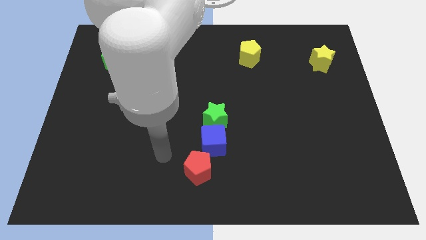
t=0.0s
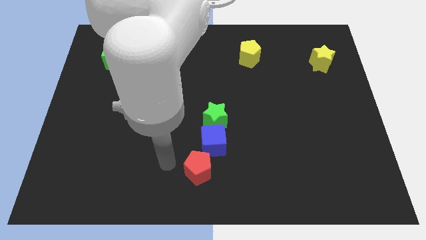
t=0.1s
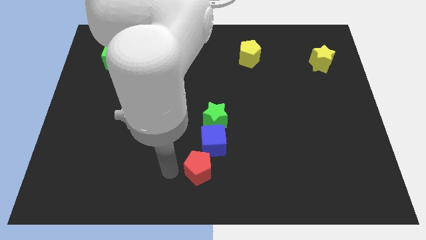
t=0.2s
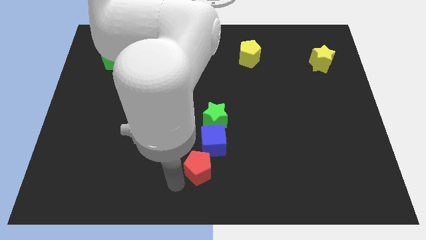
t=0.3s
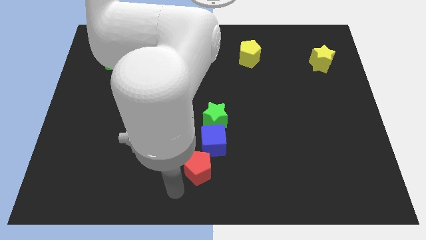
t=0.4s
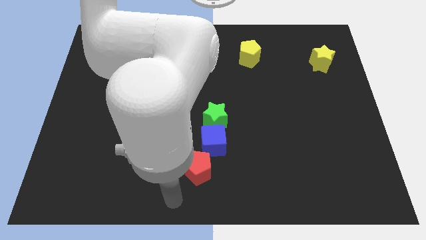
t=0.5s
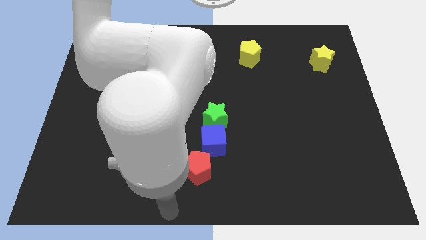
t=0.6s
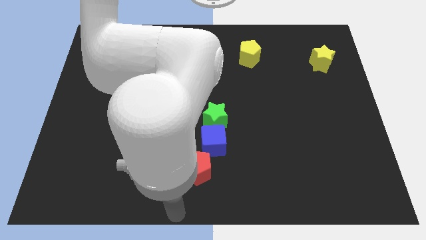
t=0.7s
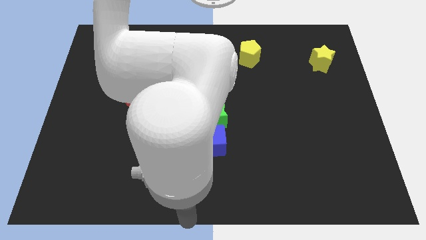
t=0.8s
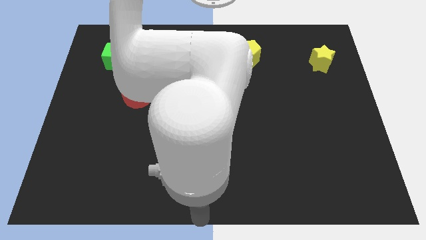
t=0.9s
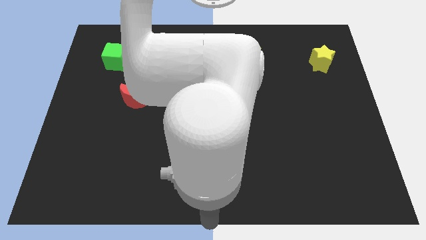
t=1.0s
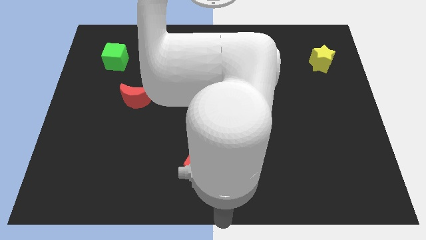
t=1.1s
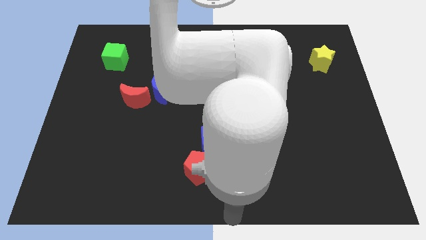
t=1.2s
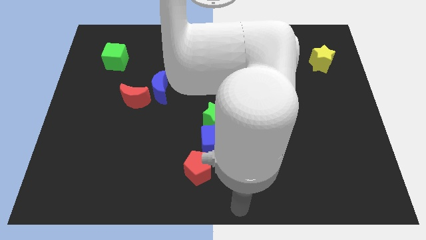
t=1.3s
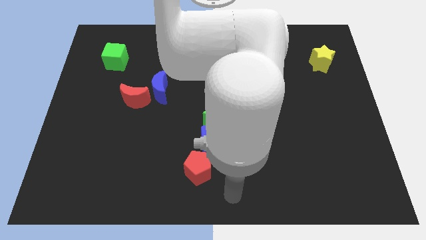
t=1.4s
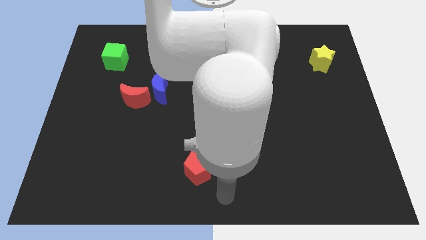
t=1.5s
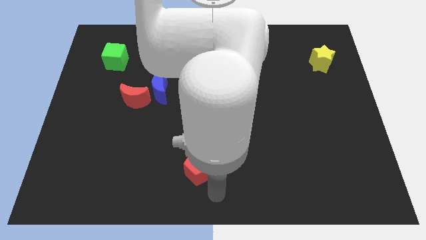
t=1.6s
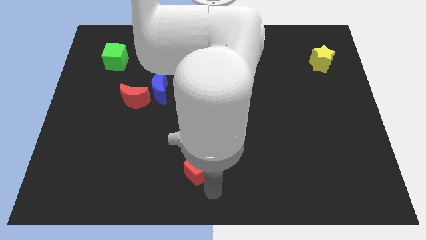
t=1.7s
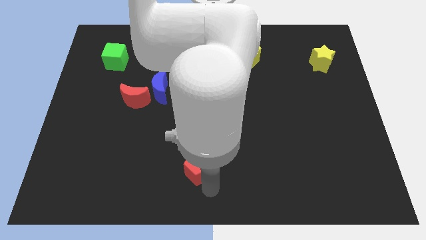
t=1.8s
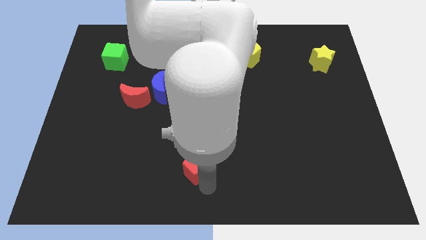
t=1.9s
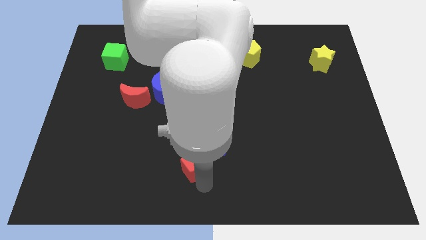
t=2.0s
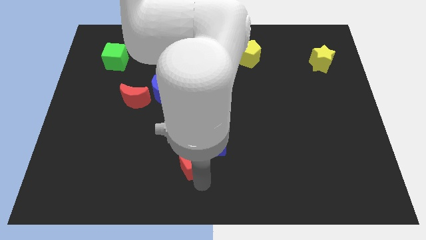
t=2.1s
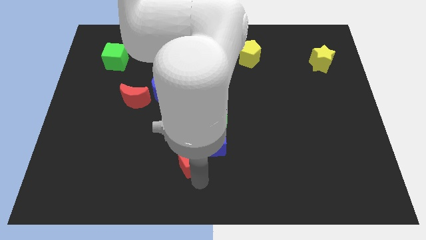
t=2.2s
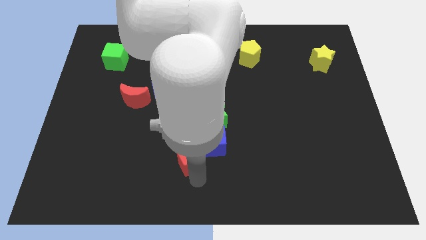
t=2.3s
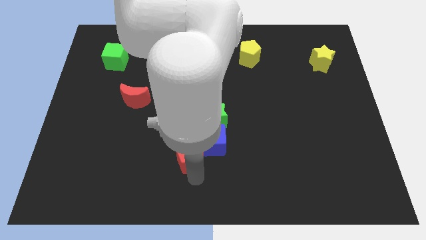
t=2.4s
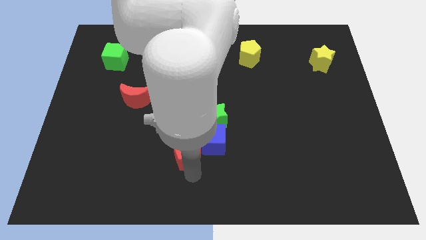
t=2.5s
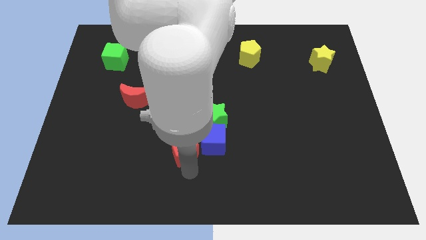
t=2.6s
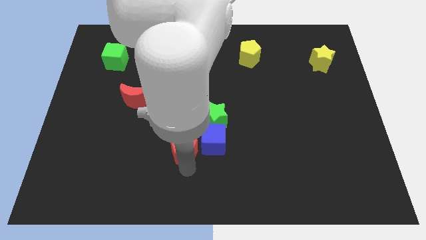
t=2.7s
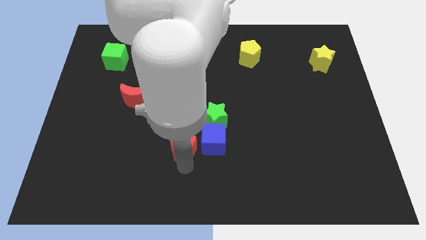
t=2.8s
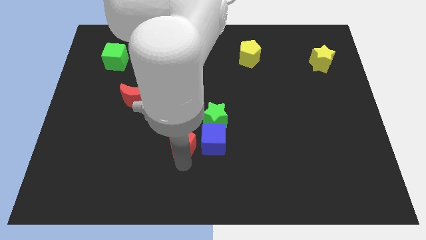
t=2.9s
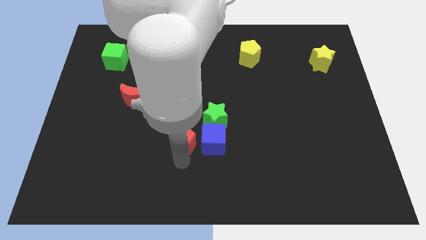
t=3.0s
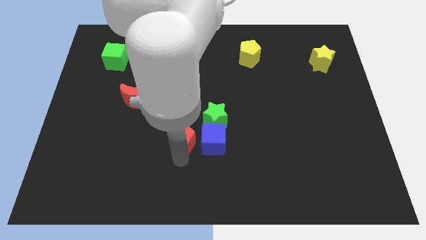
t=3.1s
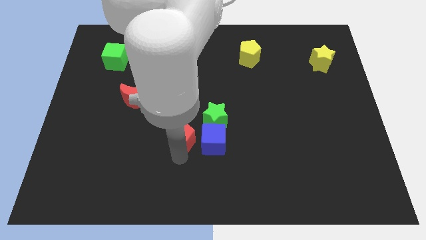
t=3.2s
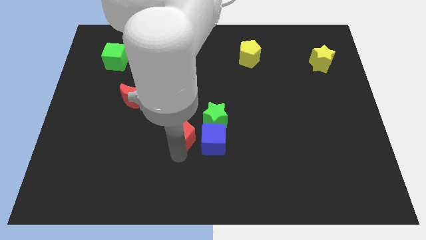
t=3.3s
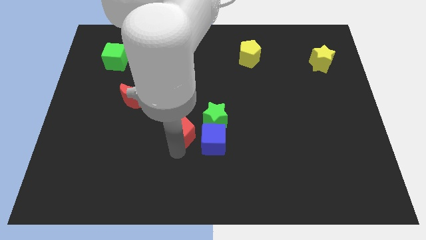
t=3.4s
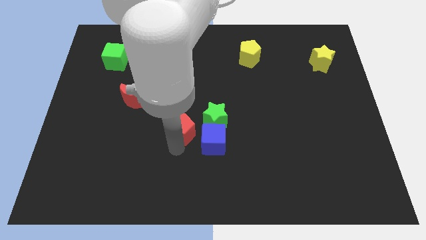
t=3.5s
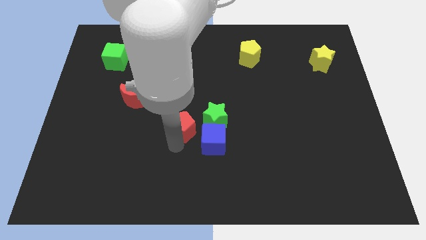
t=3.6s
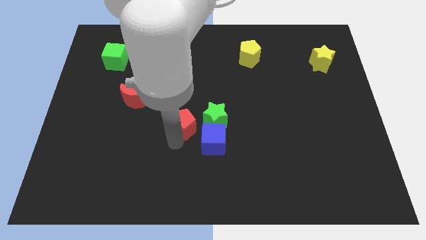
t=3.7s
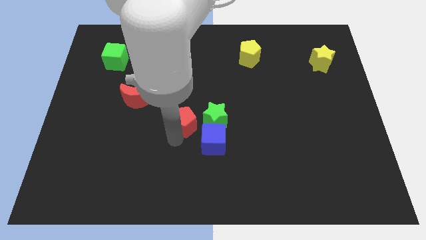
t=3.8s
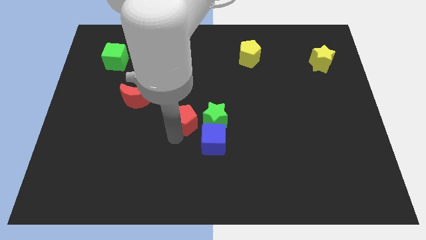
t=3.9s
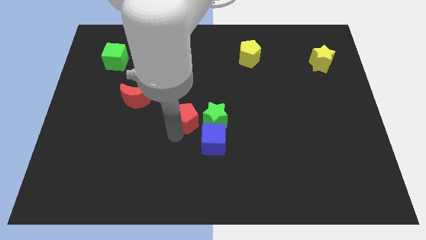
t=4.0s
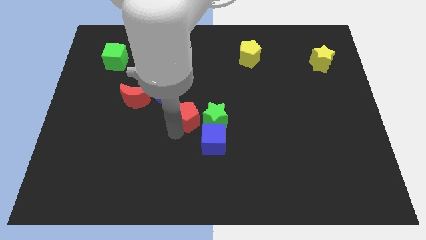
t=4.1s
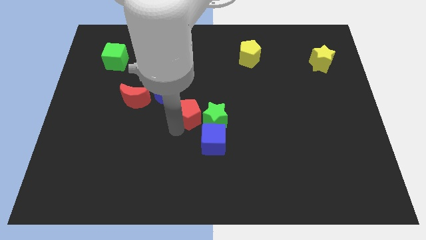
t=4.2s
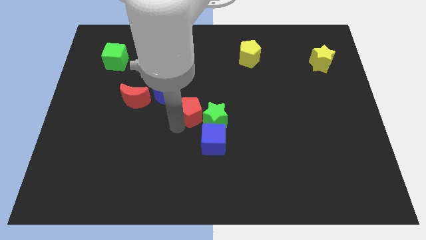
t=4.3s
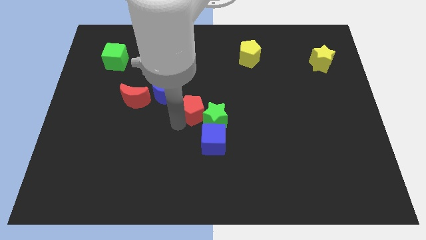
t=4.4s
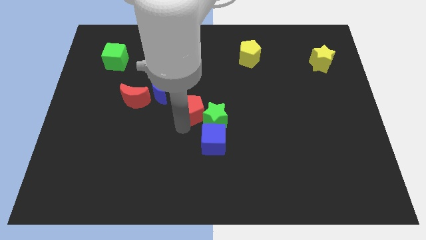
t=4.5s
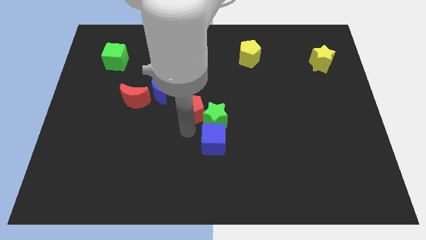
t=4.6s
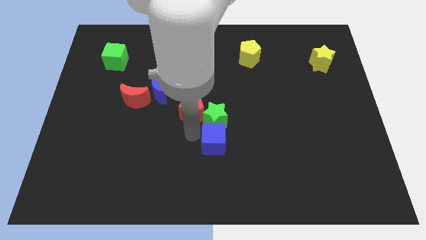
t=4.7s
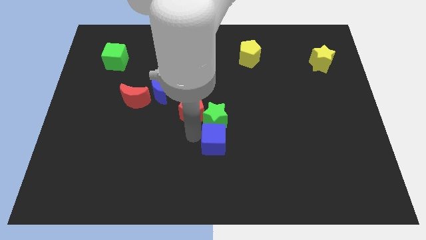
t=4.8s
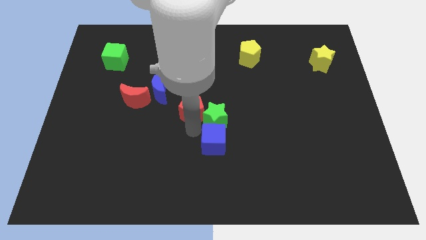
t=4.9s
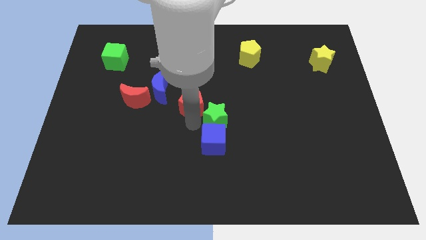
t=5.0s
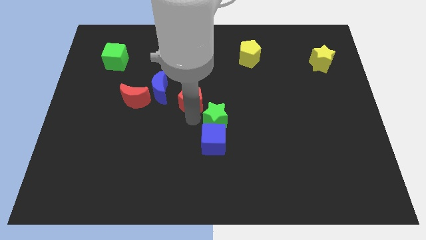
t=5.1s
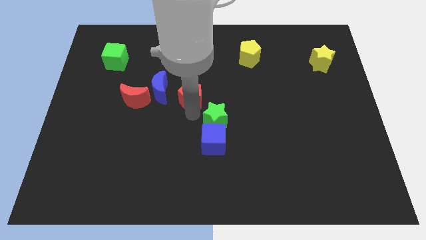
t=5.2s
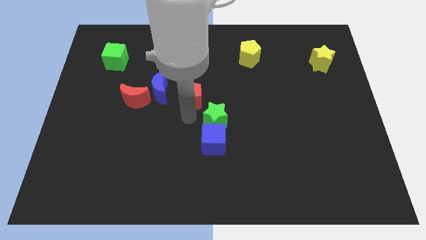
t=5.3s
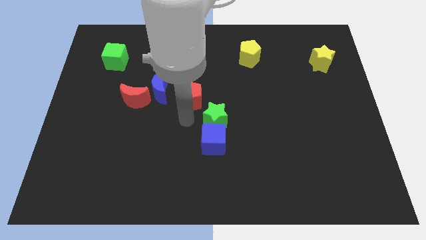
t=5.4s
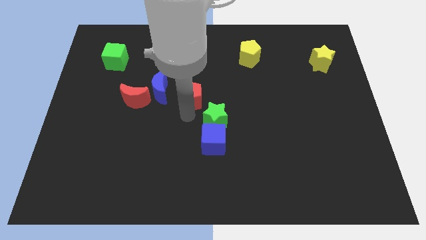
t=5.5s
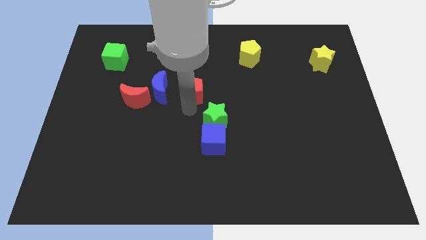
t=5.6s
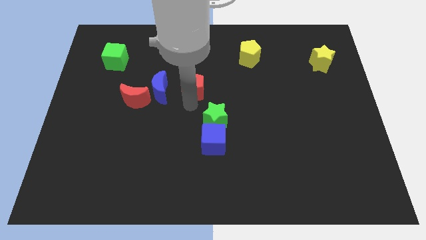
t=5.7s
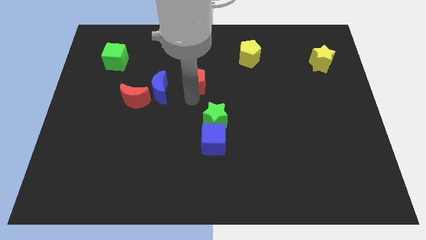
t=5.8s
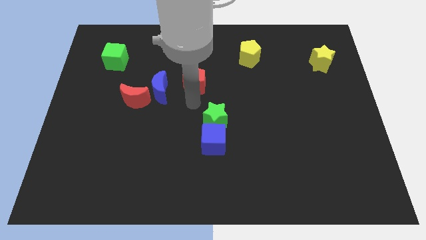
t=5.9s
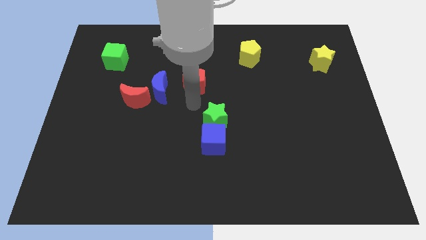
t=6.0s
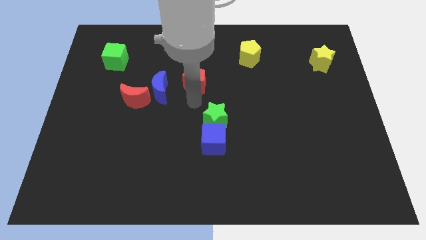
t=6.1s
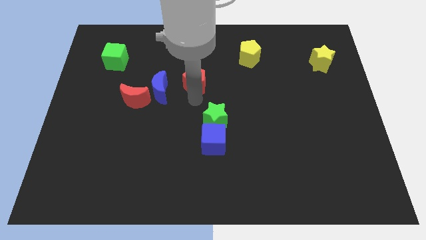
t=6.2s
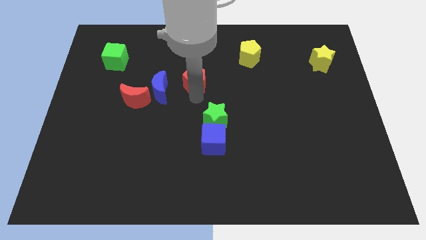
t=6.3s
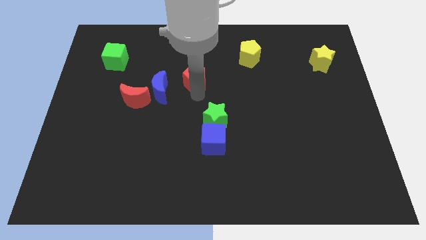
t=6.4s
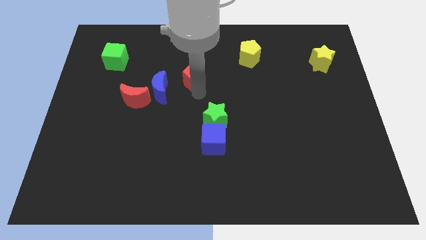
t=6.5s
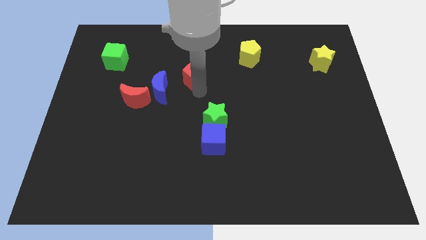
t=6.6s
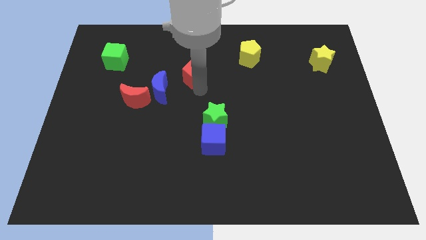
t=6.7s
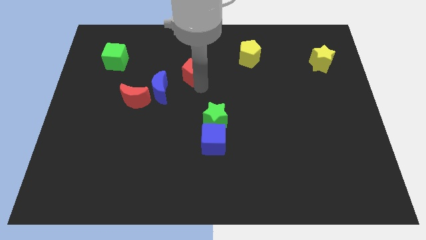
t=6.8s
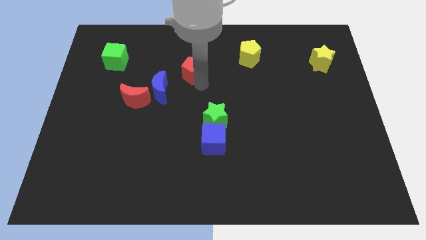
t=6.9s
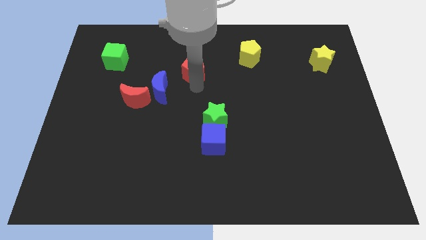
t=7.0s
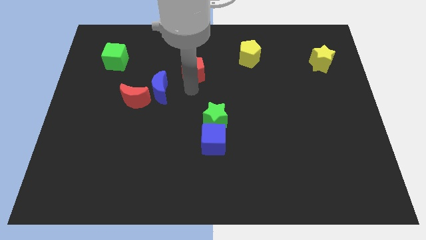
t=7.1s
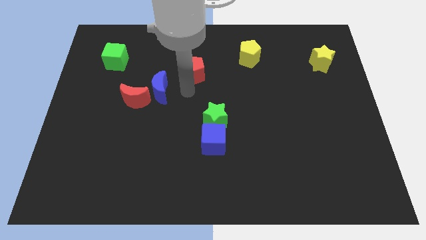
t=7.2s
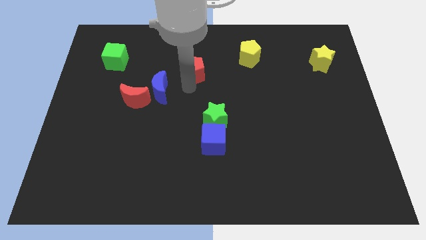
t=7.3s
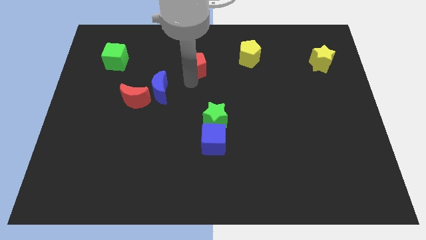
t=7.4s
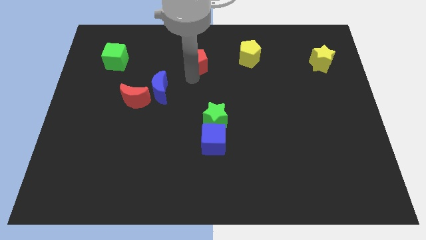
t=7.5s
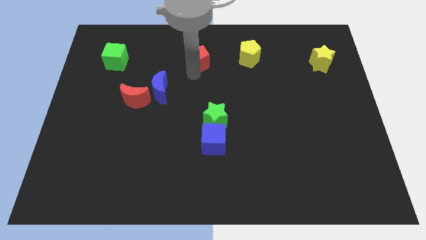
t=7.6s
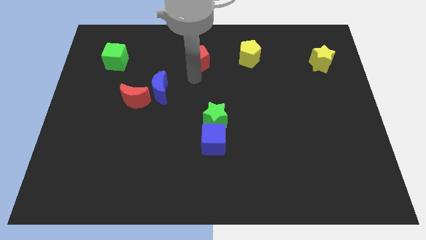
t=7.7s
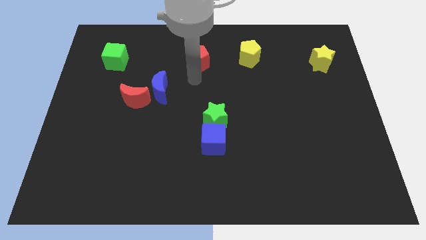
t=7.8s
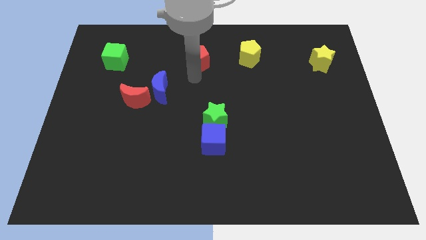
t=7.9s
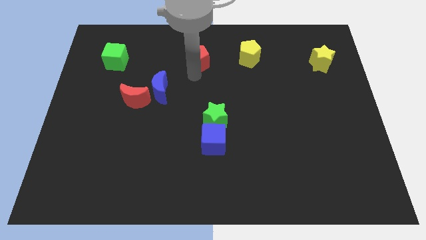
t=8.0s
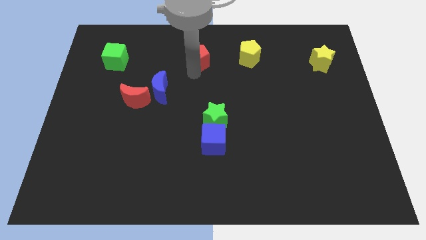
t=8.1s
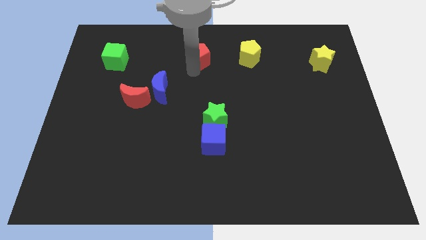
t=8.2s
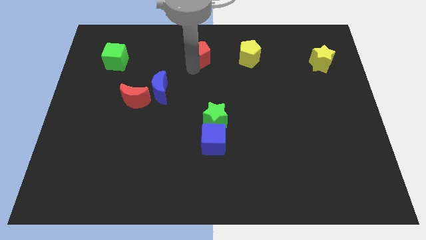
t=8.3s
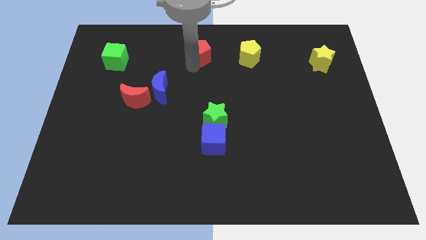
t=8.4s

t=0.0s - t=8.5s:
put the red pentagon to the towards your base
